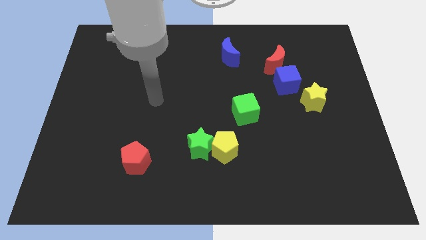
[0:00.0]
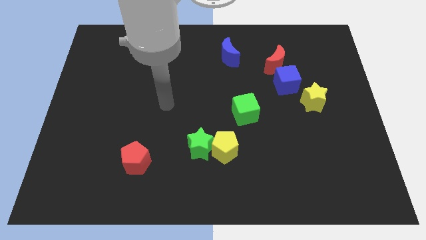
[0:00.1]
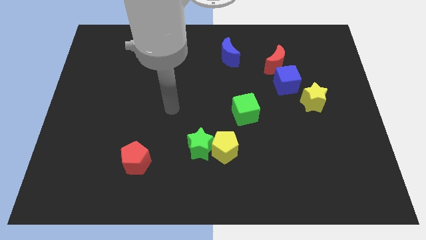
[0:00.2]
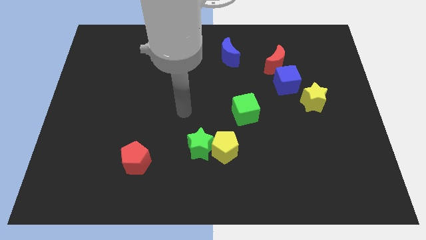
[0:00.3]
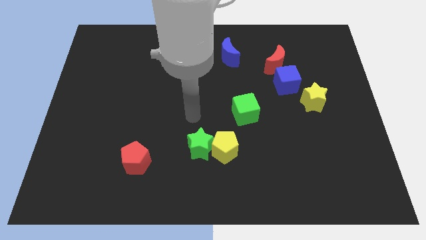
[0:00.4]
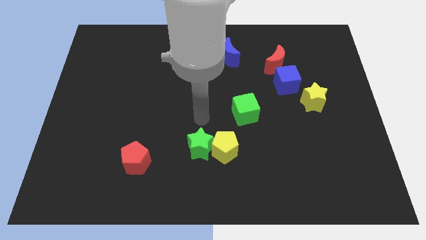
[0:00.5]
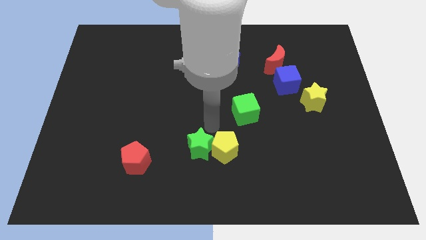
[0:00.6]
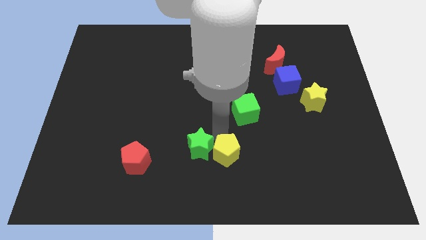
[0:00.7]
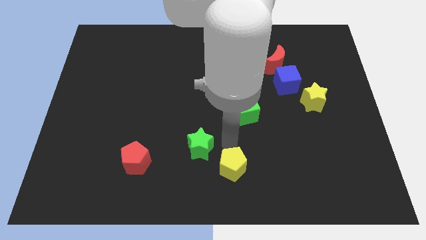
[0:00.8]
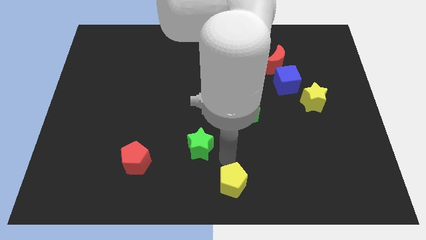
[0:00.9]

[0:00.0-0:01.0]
move the green star away from the yellow pentagon

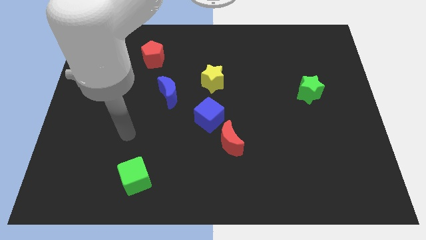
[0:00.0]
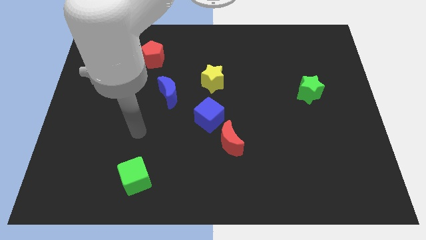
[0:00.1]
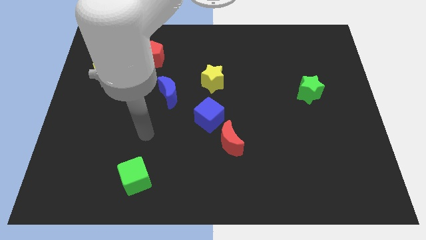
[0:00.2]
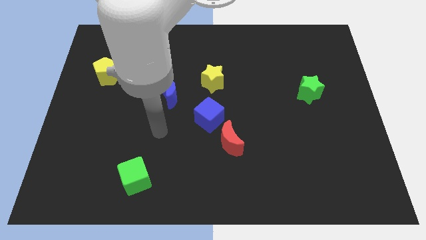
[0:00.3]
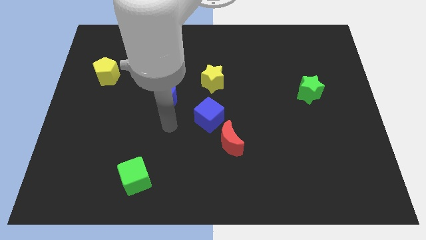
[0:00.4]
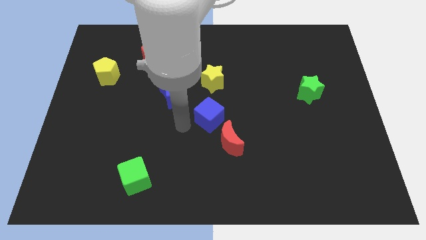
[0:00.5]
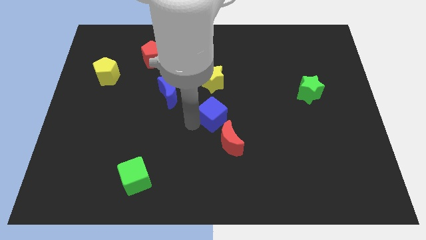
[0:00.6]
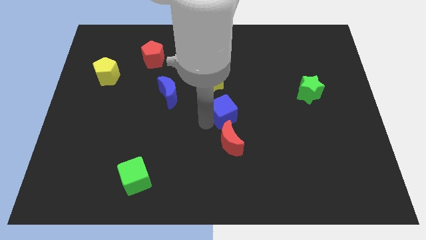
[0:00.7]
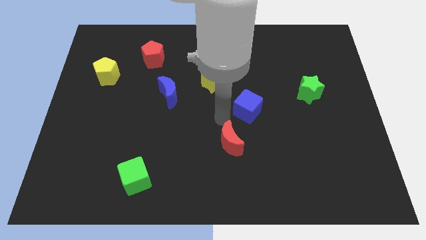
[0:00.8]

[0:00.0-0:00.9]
move the red moon away from the blue cube

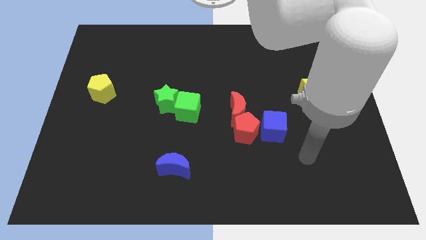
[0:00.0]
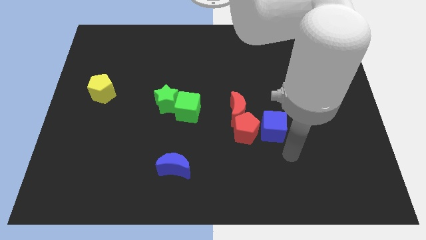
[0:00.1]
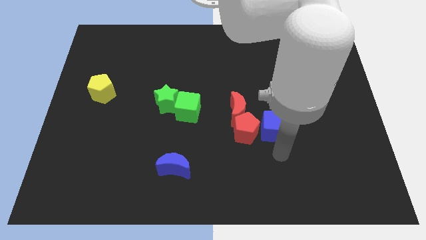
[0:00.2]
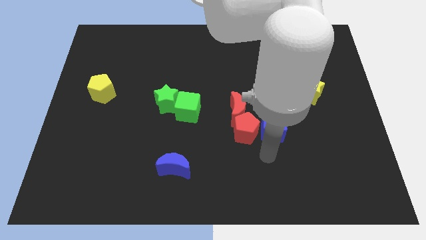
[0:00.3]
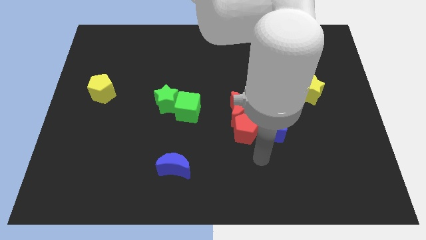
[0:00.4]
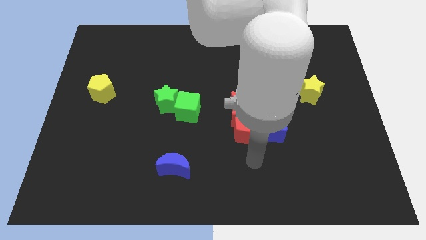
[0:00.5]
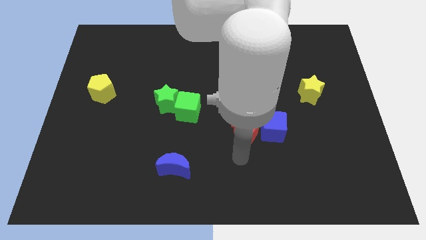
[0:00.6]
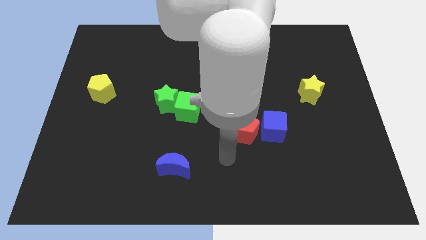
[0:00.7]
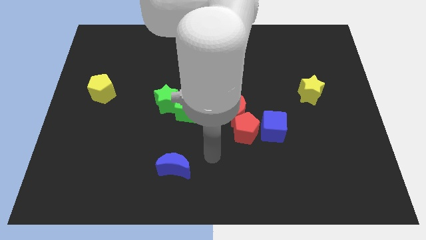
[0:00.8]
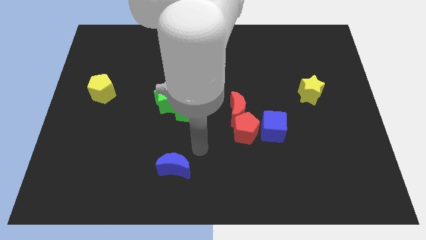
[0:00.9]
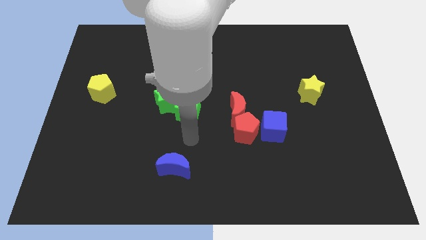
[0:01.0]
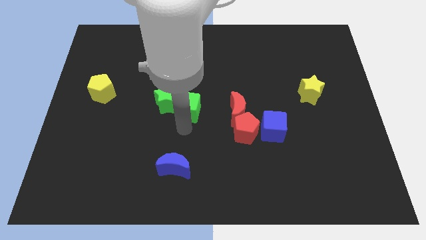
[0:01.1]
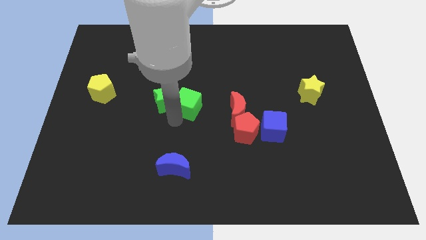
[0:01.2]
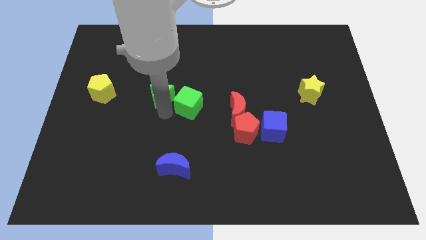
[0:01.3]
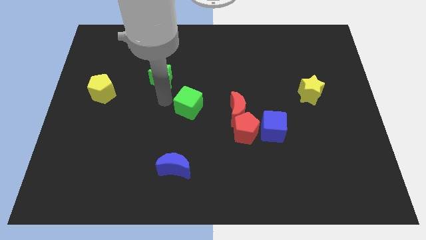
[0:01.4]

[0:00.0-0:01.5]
separate the green cube from the green star

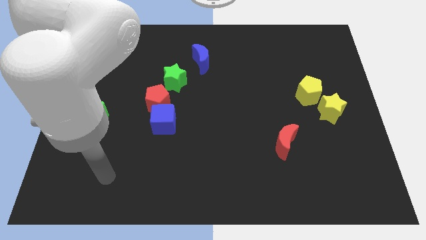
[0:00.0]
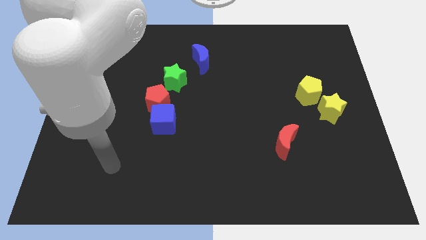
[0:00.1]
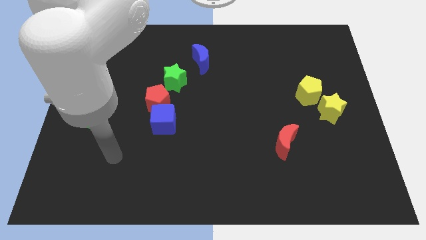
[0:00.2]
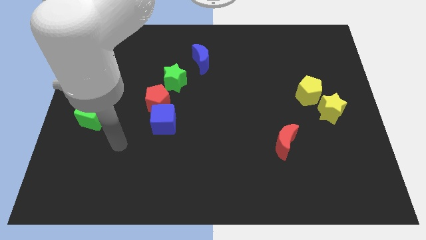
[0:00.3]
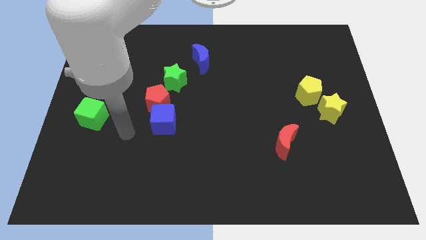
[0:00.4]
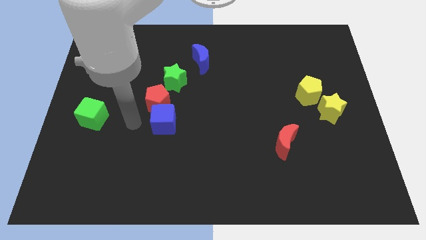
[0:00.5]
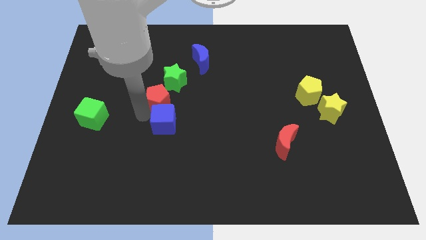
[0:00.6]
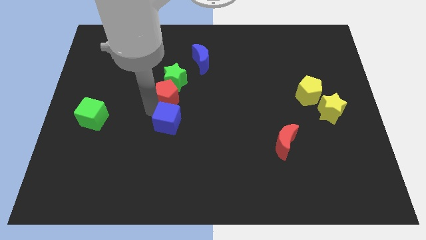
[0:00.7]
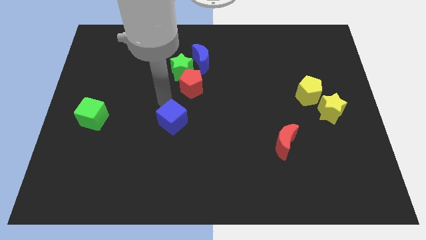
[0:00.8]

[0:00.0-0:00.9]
separate the blue cube from the red pentagon

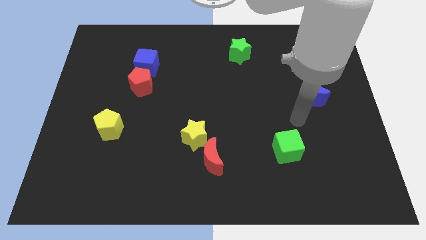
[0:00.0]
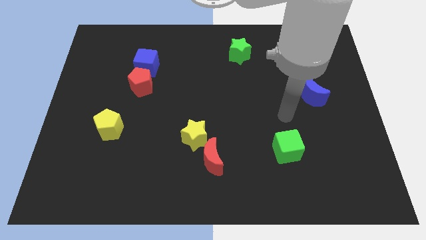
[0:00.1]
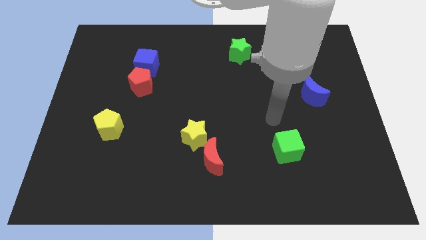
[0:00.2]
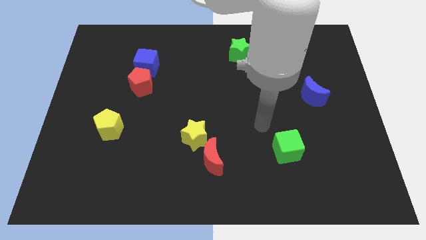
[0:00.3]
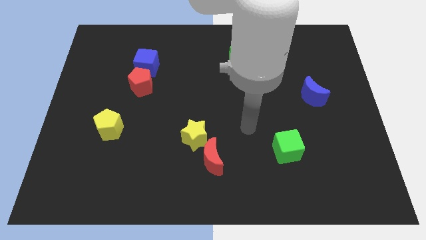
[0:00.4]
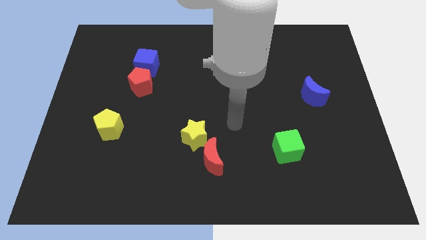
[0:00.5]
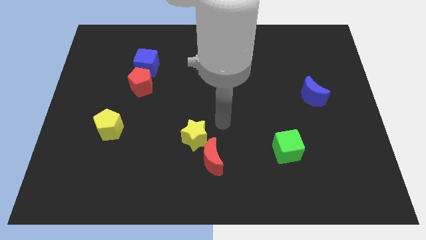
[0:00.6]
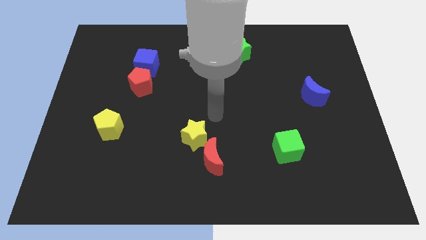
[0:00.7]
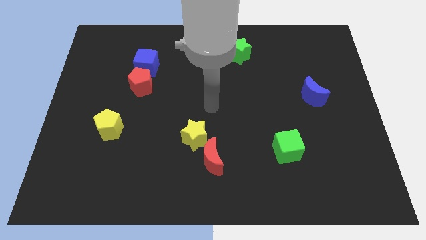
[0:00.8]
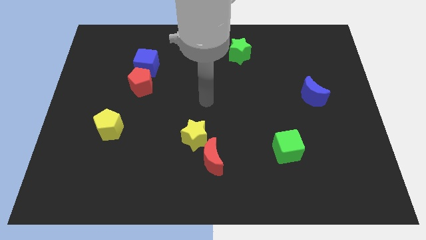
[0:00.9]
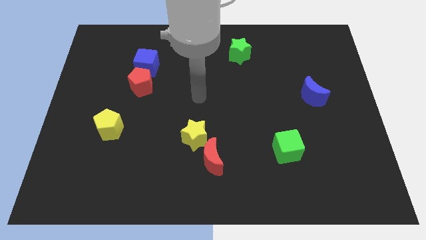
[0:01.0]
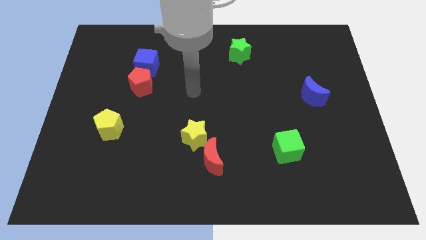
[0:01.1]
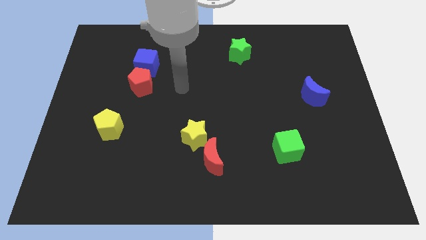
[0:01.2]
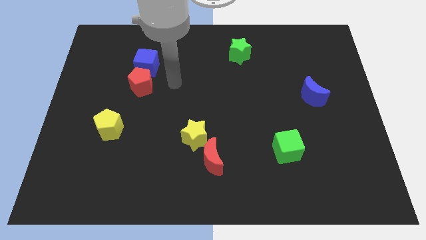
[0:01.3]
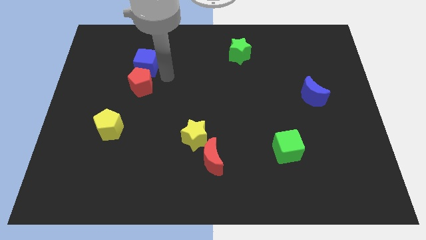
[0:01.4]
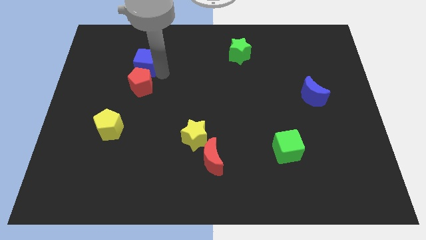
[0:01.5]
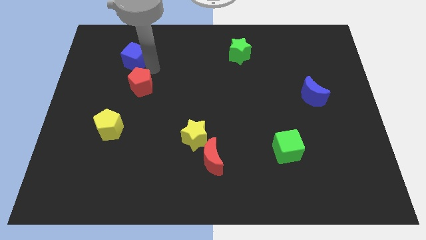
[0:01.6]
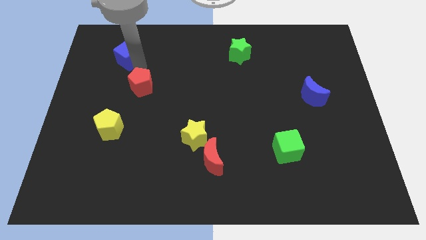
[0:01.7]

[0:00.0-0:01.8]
separate the red pentagon from the blue cube

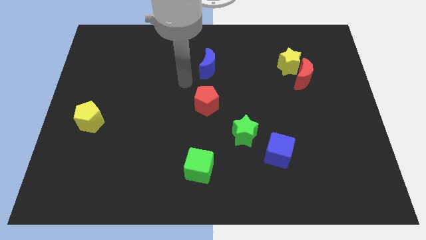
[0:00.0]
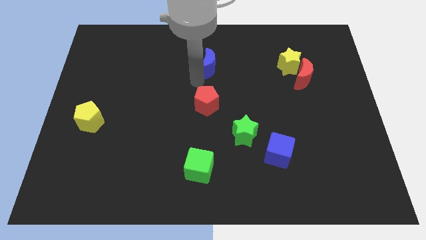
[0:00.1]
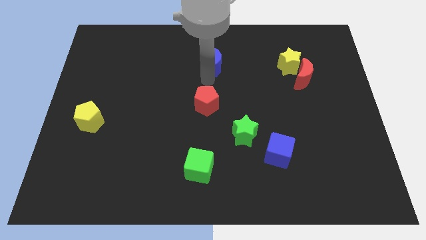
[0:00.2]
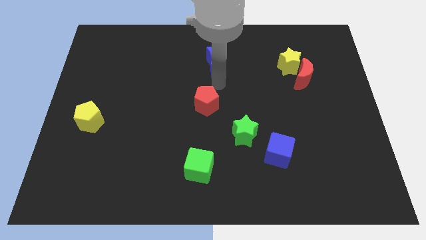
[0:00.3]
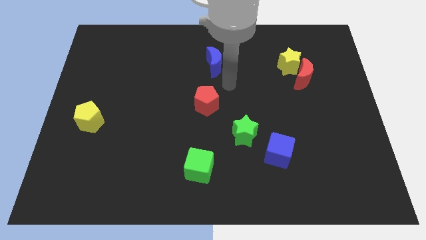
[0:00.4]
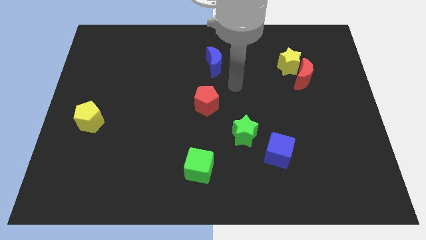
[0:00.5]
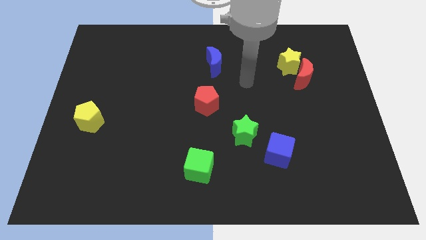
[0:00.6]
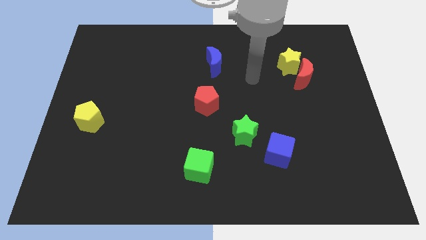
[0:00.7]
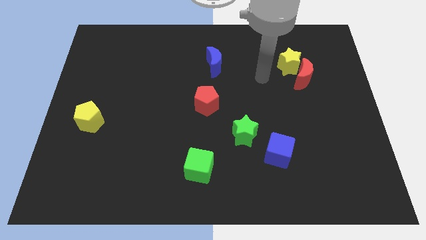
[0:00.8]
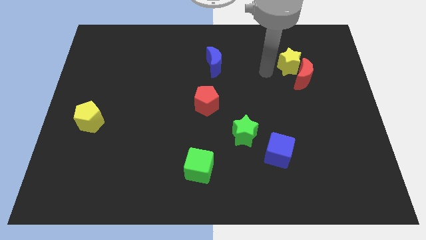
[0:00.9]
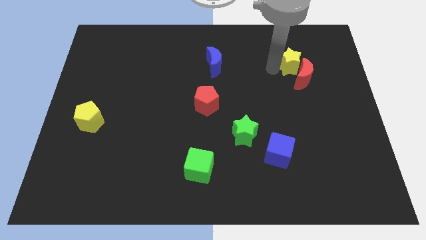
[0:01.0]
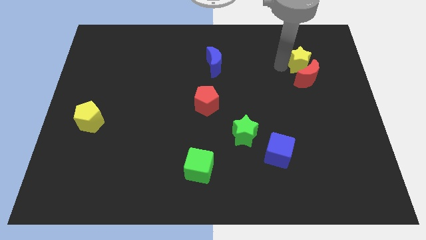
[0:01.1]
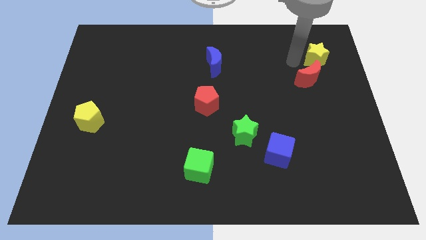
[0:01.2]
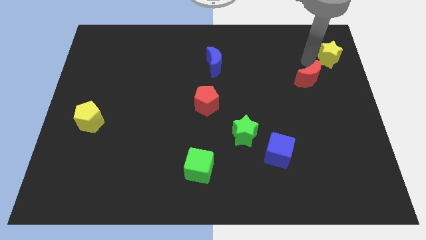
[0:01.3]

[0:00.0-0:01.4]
separate the red moon from the yellow star

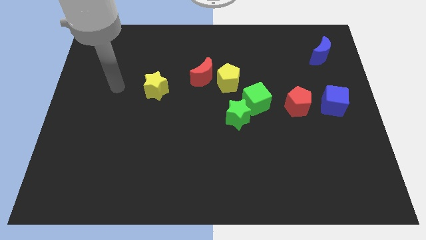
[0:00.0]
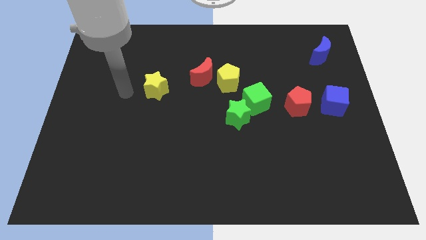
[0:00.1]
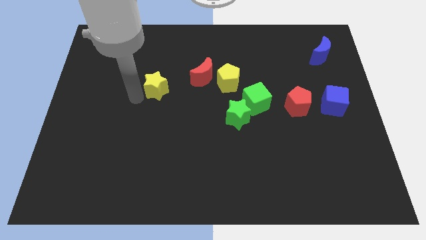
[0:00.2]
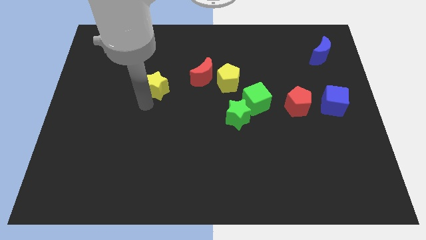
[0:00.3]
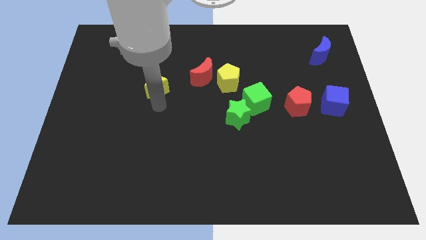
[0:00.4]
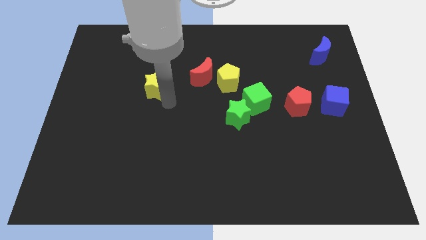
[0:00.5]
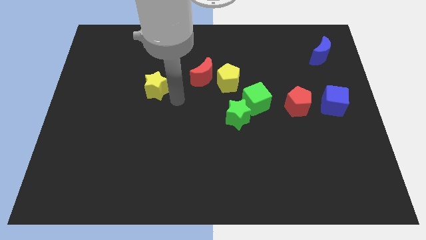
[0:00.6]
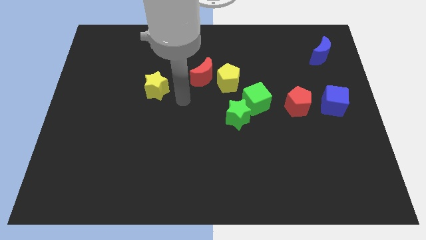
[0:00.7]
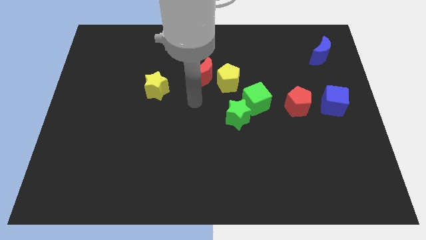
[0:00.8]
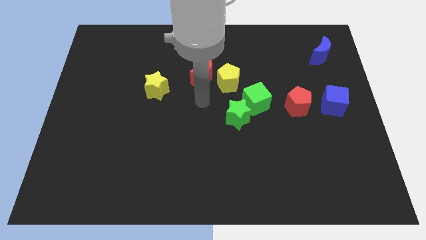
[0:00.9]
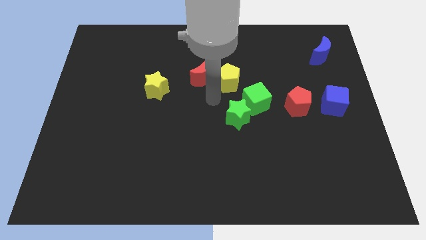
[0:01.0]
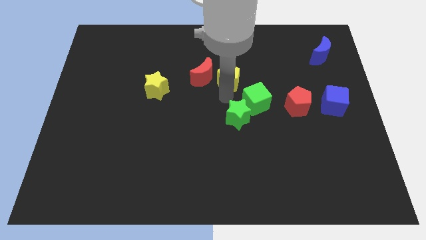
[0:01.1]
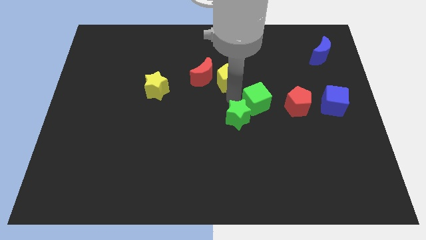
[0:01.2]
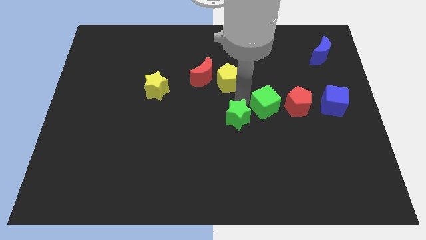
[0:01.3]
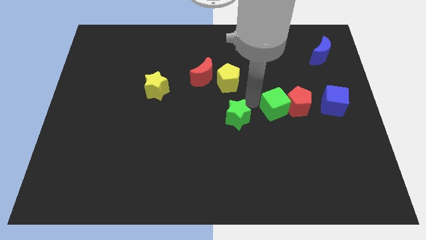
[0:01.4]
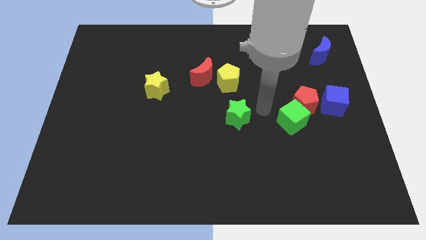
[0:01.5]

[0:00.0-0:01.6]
move the green star away from the green cube

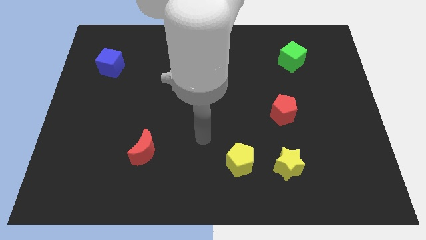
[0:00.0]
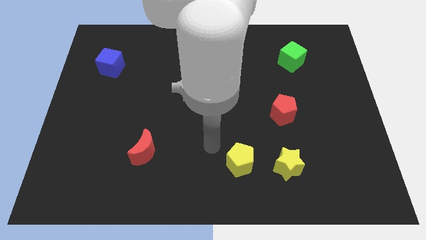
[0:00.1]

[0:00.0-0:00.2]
separate the yellow star from the yellow pentagon
